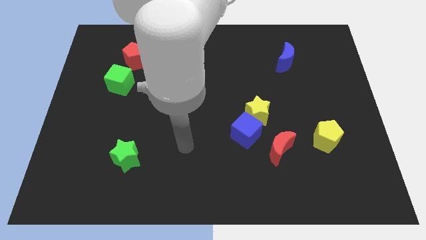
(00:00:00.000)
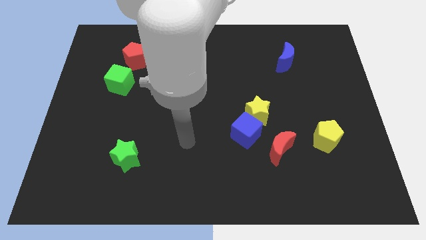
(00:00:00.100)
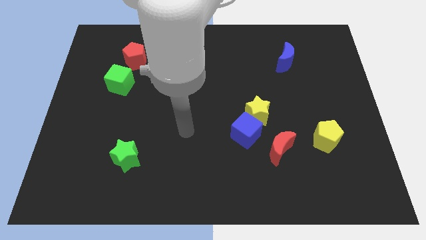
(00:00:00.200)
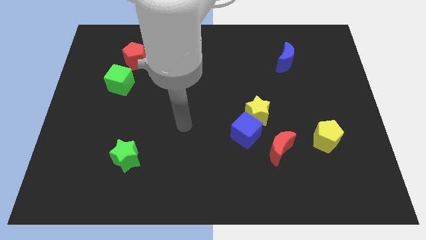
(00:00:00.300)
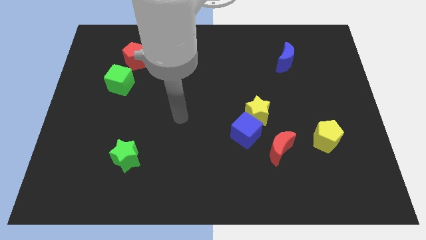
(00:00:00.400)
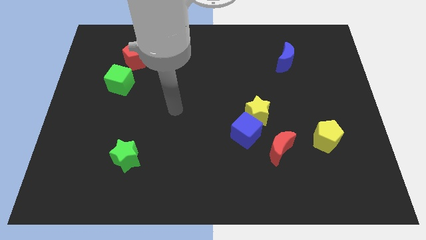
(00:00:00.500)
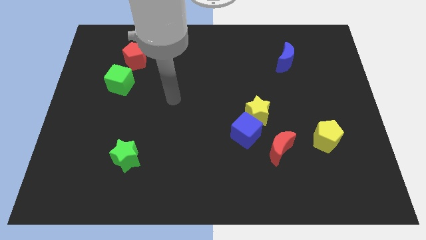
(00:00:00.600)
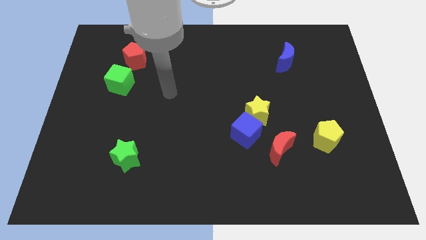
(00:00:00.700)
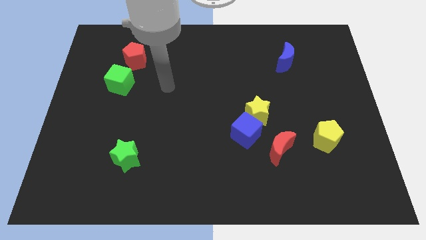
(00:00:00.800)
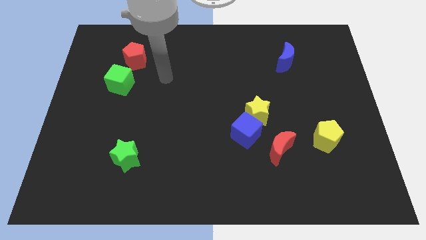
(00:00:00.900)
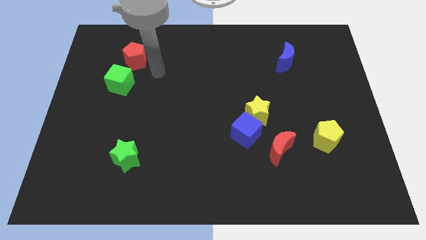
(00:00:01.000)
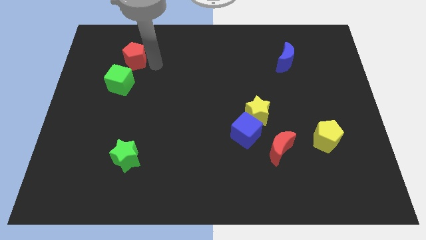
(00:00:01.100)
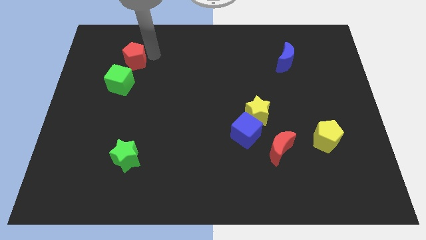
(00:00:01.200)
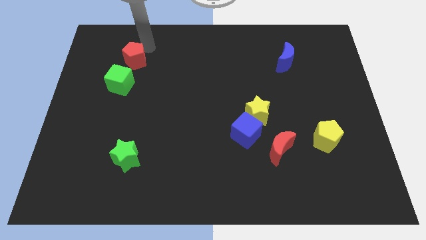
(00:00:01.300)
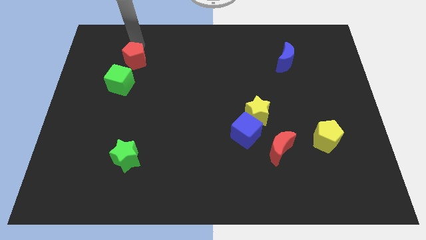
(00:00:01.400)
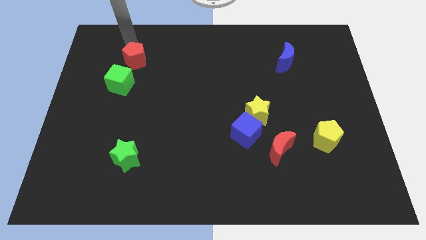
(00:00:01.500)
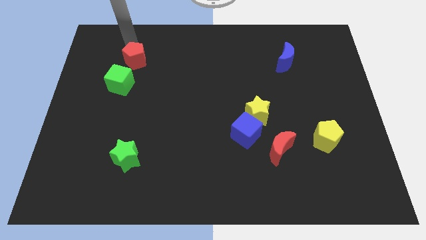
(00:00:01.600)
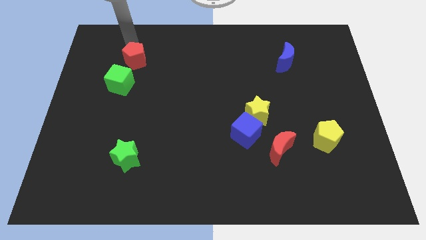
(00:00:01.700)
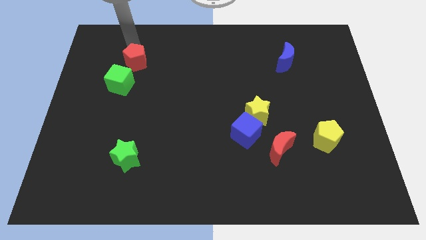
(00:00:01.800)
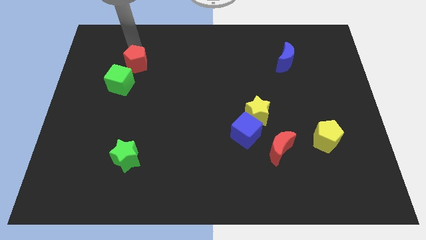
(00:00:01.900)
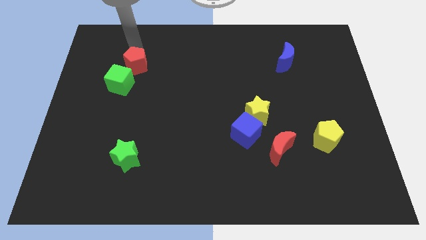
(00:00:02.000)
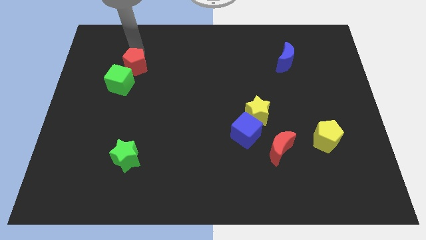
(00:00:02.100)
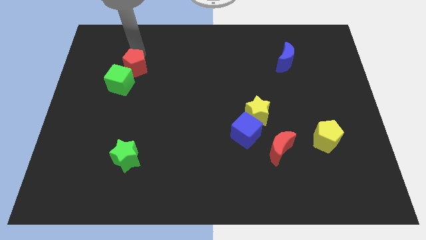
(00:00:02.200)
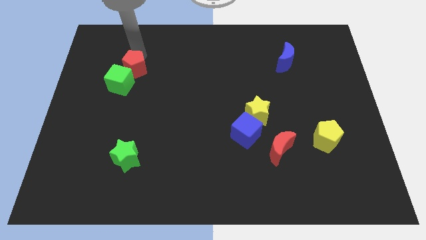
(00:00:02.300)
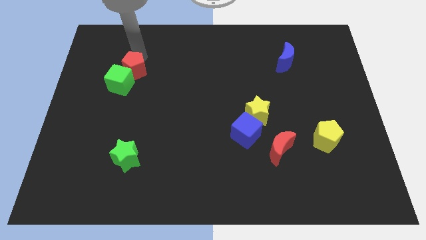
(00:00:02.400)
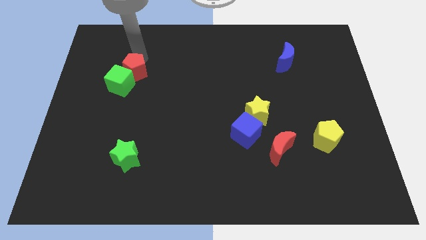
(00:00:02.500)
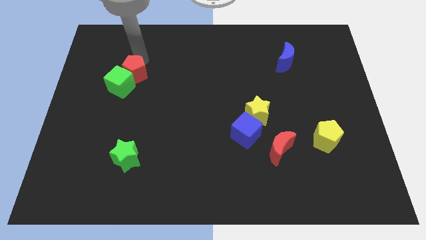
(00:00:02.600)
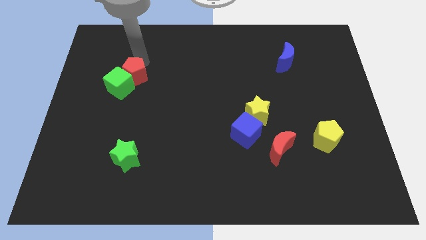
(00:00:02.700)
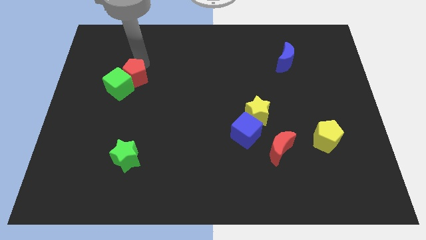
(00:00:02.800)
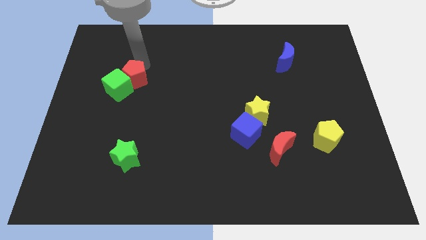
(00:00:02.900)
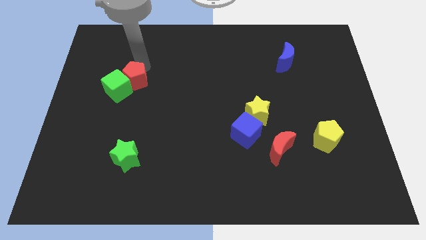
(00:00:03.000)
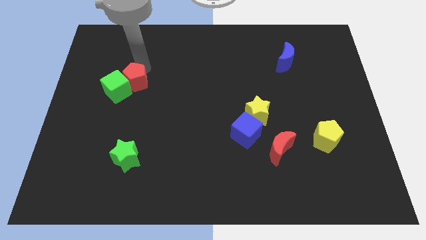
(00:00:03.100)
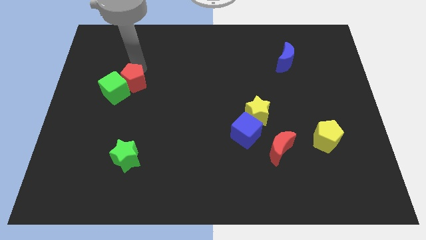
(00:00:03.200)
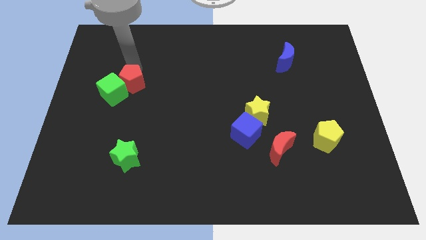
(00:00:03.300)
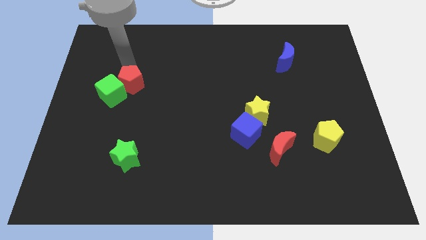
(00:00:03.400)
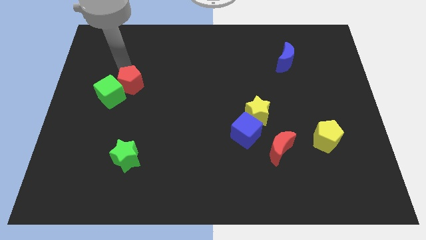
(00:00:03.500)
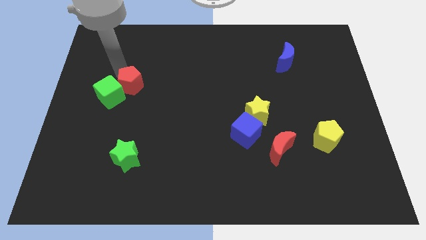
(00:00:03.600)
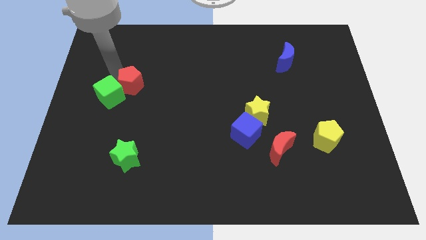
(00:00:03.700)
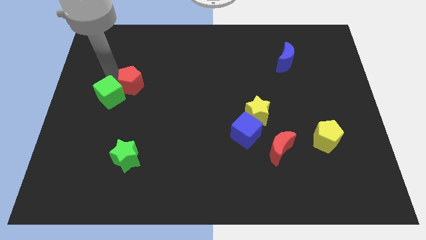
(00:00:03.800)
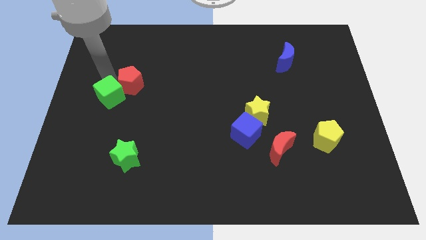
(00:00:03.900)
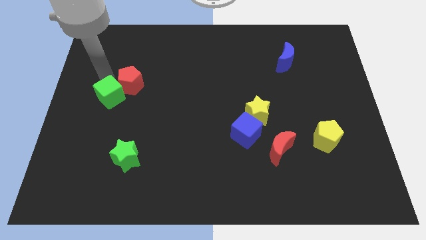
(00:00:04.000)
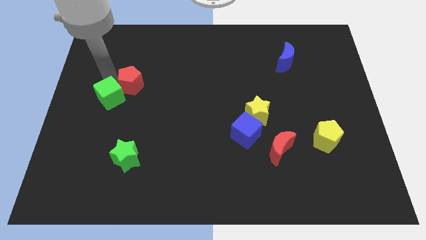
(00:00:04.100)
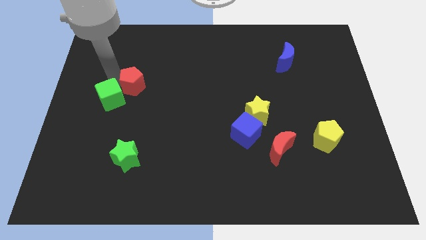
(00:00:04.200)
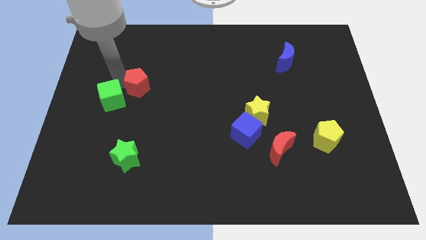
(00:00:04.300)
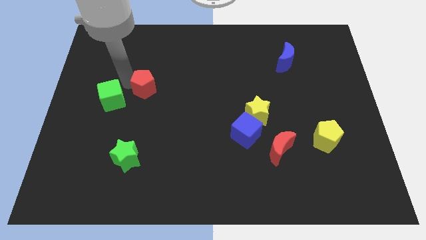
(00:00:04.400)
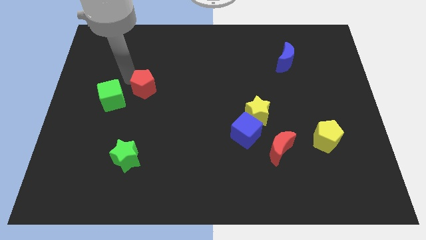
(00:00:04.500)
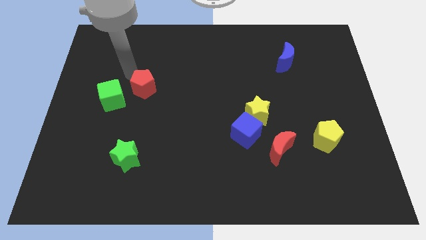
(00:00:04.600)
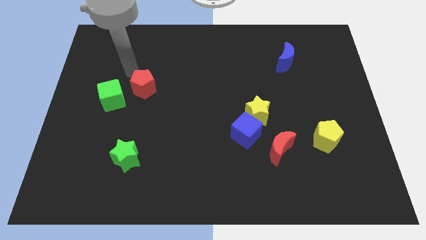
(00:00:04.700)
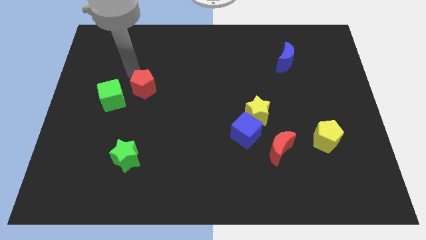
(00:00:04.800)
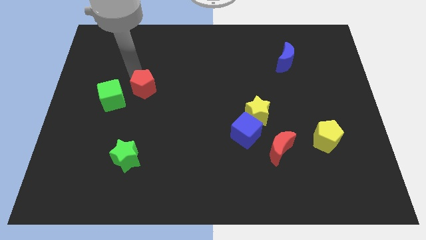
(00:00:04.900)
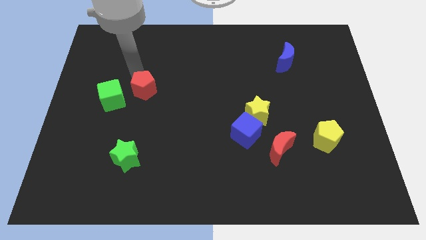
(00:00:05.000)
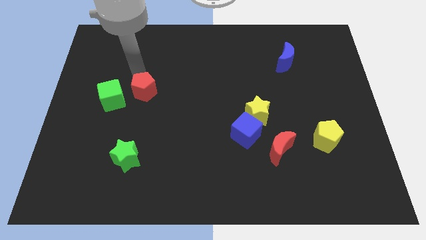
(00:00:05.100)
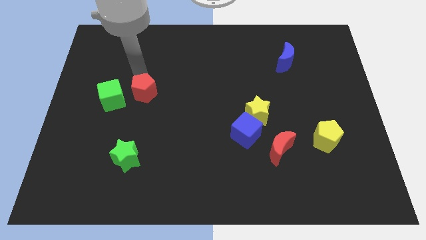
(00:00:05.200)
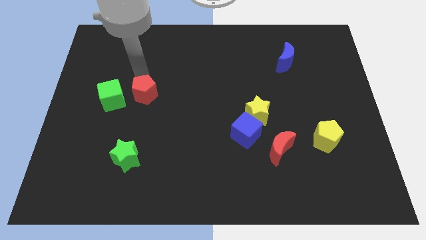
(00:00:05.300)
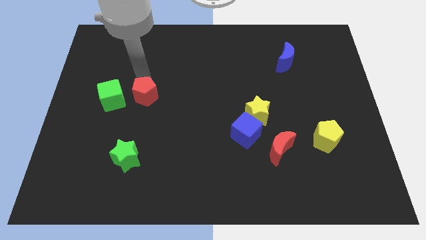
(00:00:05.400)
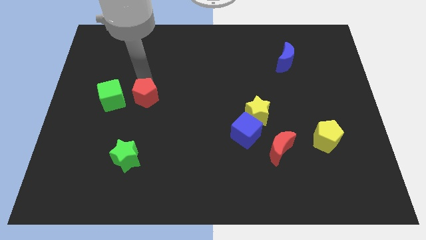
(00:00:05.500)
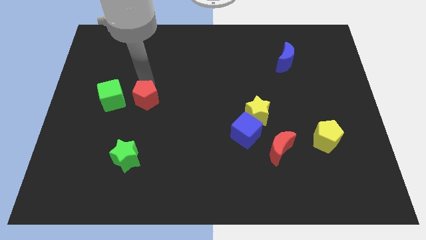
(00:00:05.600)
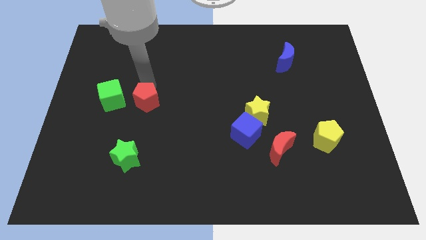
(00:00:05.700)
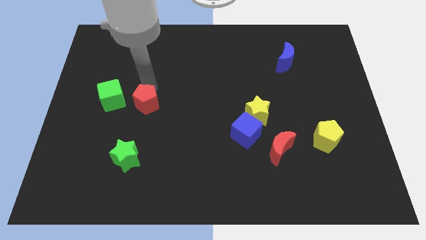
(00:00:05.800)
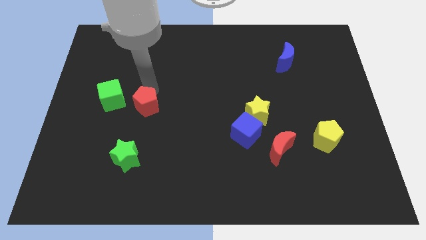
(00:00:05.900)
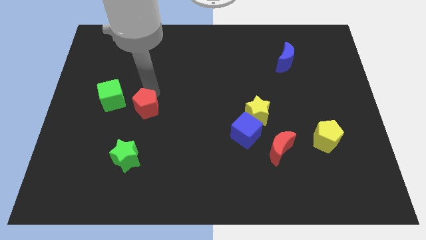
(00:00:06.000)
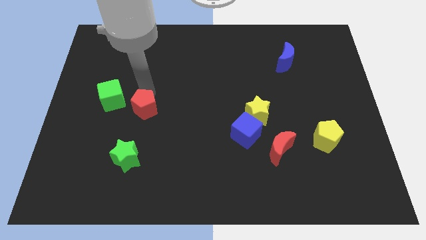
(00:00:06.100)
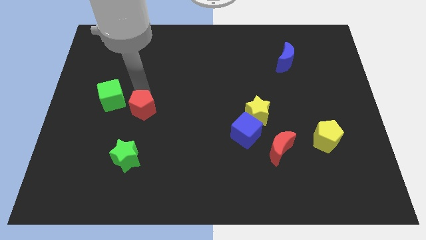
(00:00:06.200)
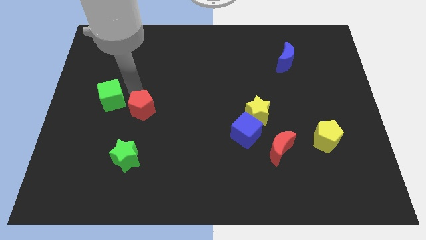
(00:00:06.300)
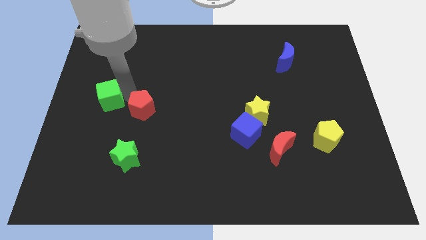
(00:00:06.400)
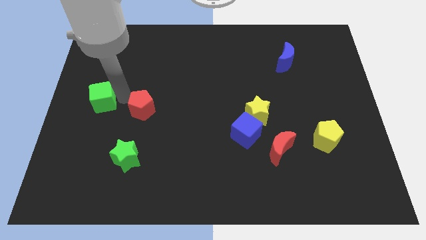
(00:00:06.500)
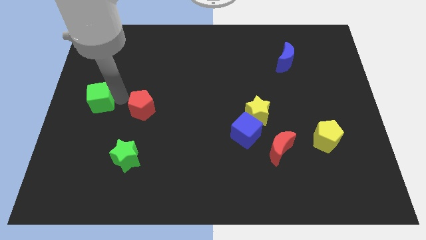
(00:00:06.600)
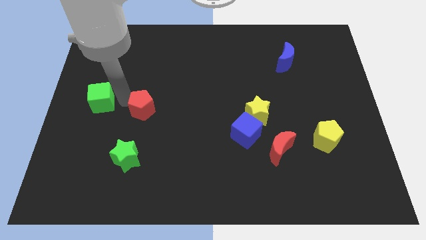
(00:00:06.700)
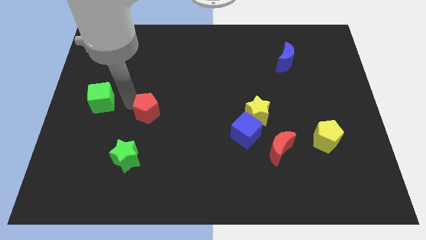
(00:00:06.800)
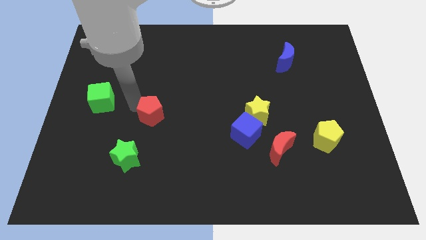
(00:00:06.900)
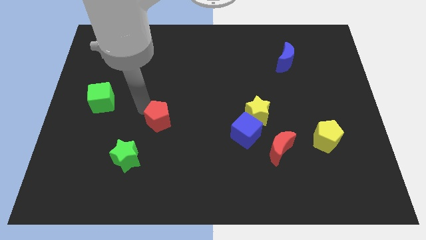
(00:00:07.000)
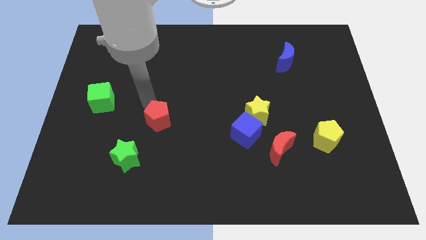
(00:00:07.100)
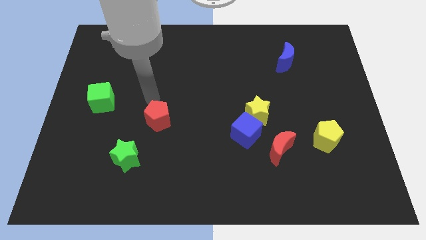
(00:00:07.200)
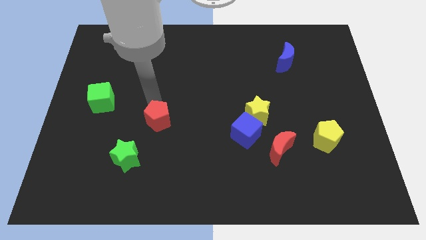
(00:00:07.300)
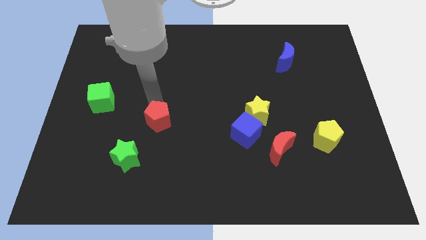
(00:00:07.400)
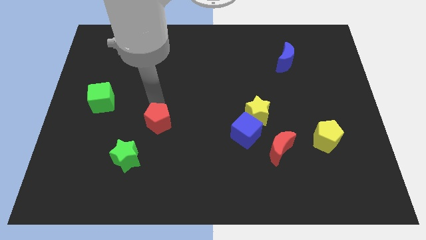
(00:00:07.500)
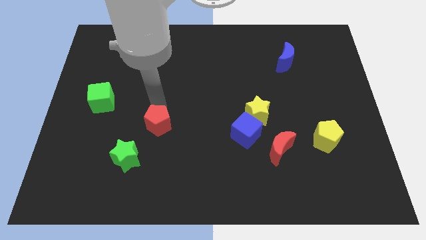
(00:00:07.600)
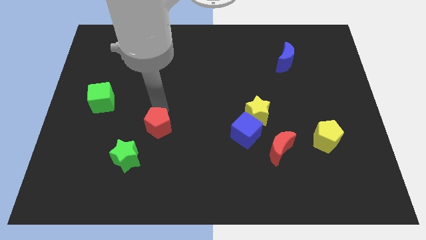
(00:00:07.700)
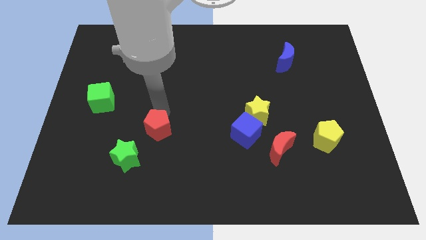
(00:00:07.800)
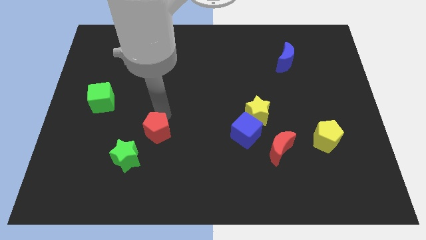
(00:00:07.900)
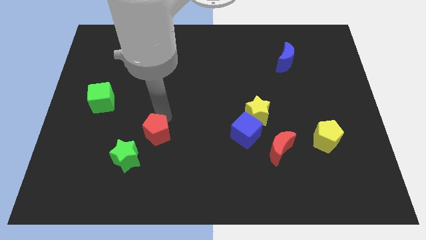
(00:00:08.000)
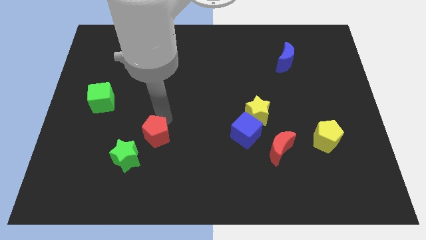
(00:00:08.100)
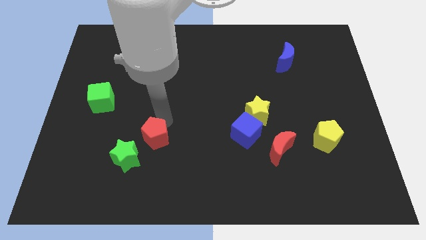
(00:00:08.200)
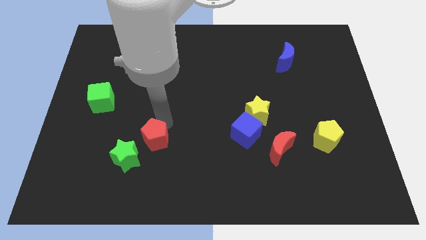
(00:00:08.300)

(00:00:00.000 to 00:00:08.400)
push the red pentagon right of the green star
